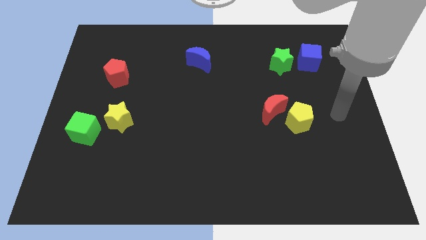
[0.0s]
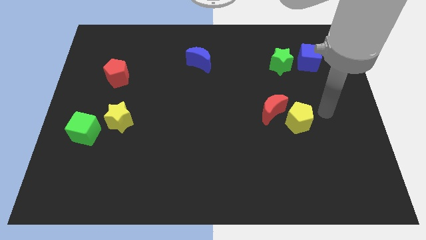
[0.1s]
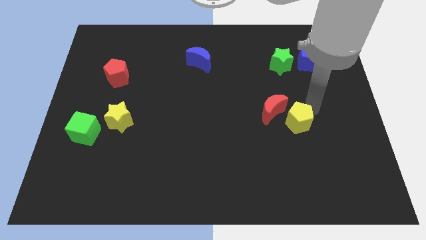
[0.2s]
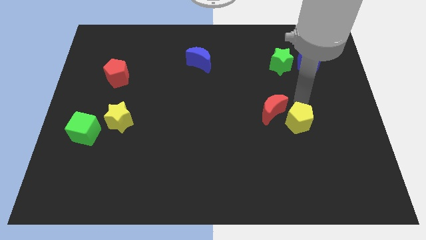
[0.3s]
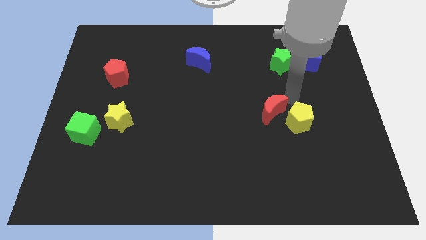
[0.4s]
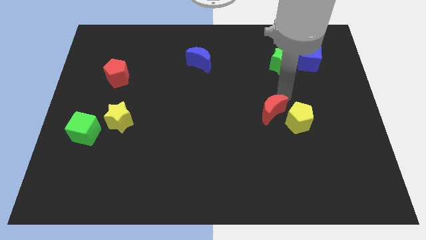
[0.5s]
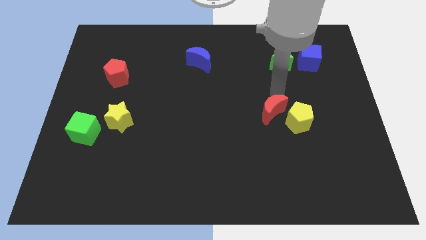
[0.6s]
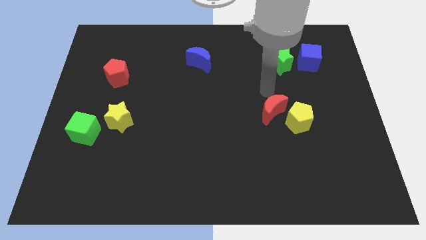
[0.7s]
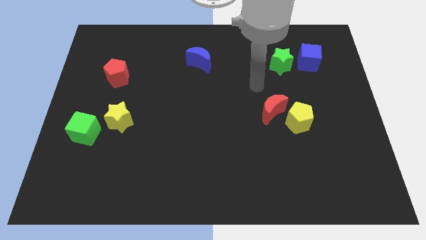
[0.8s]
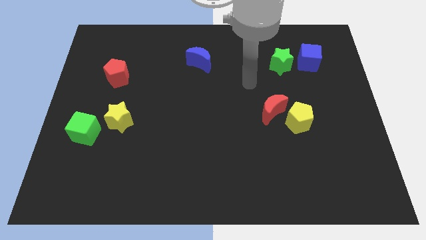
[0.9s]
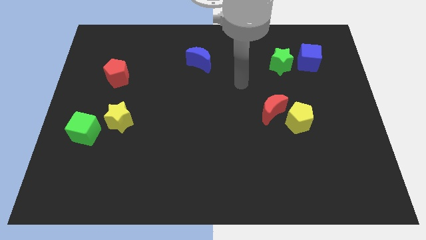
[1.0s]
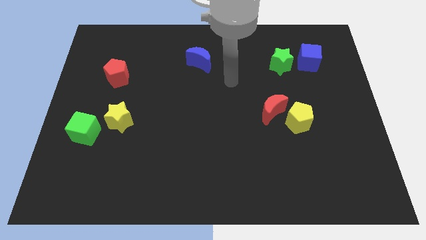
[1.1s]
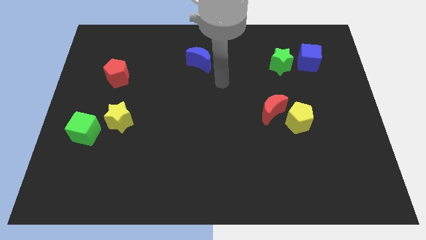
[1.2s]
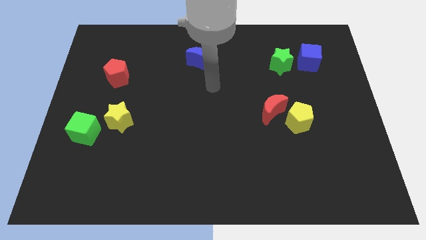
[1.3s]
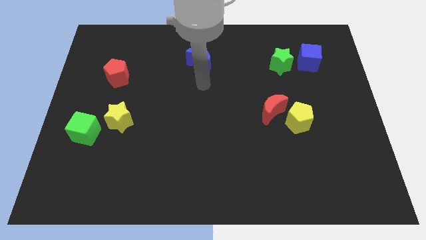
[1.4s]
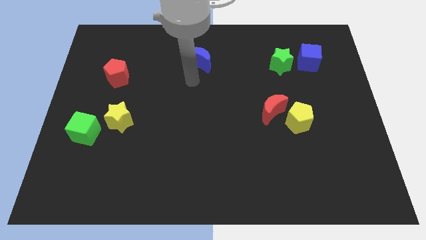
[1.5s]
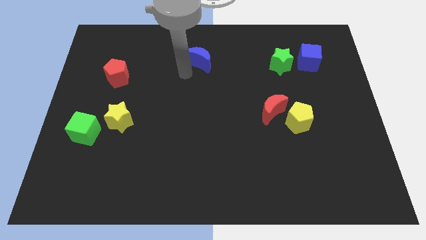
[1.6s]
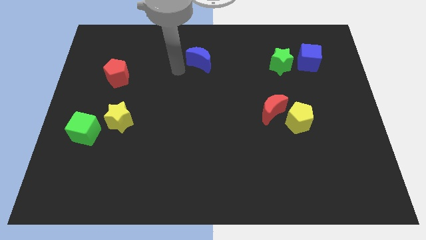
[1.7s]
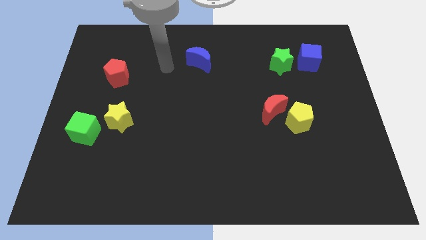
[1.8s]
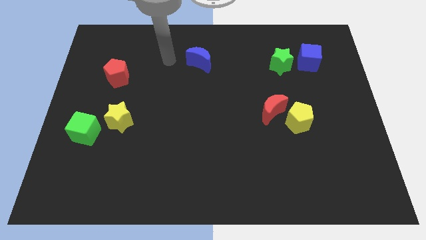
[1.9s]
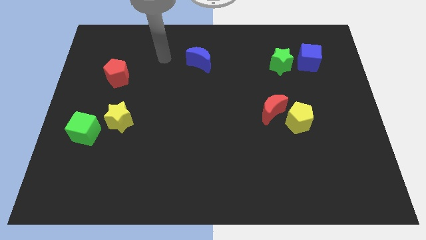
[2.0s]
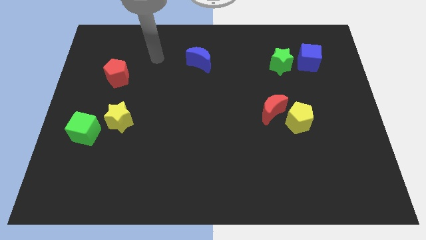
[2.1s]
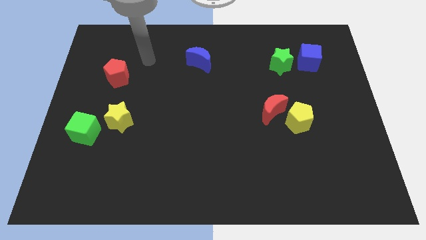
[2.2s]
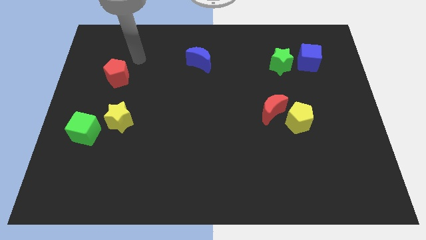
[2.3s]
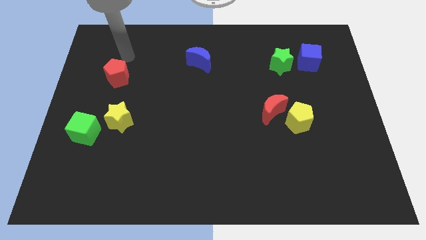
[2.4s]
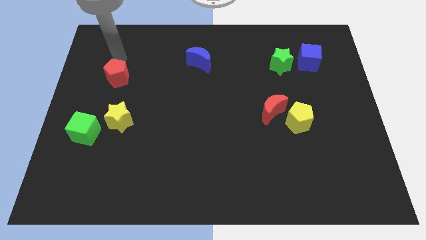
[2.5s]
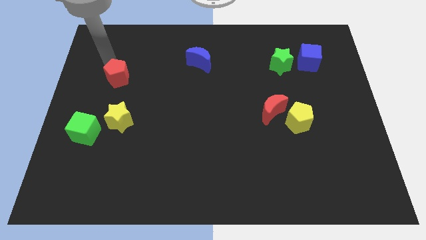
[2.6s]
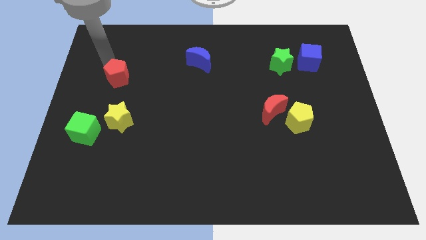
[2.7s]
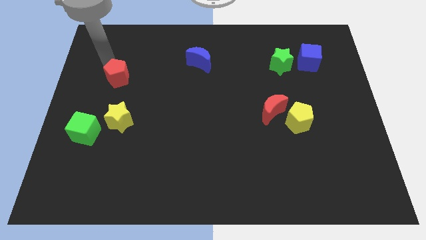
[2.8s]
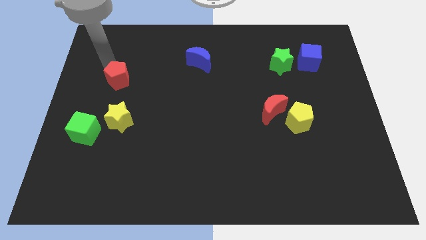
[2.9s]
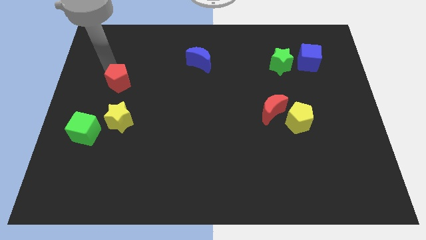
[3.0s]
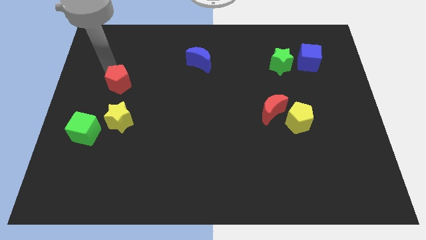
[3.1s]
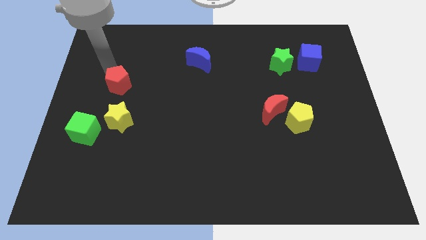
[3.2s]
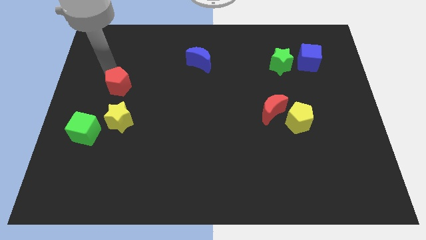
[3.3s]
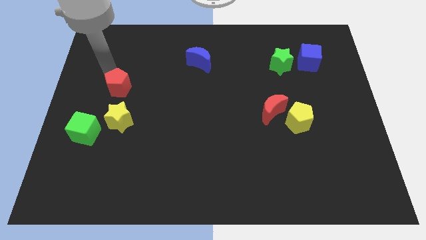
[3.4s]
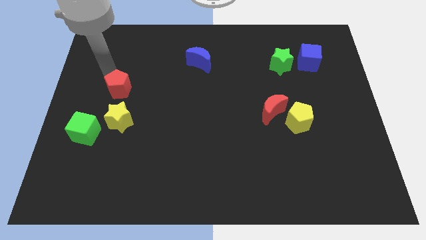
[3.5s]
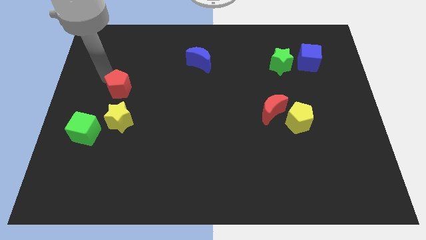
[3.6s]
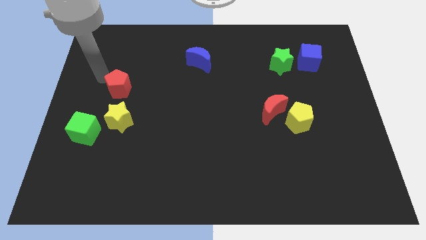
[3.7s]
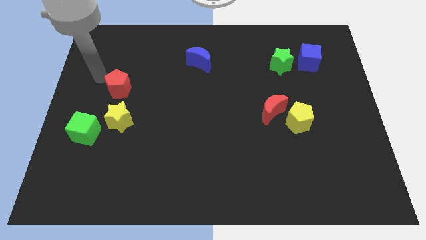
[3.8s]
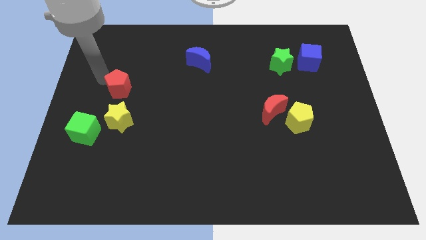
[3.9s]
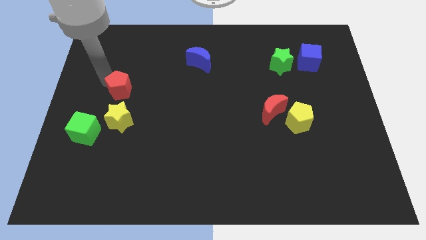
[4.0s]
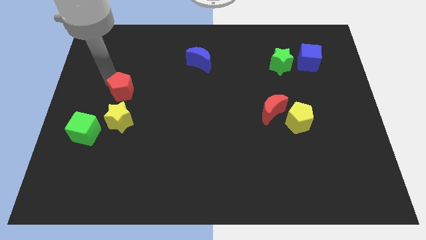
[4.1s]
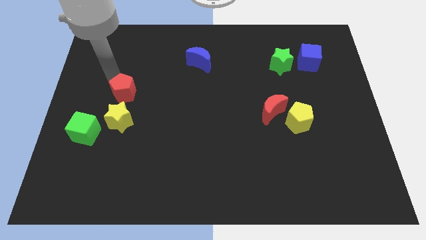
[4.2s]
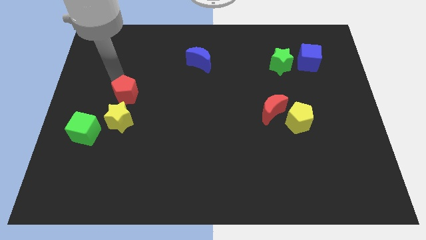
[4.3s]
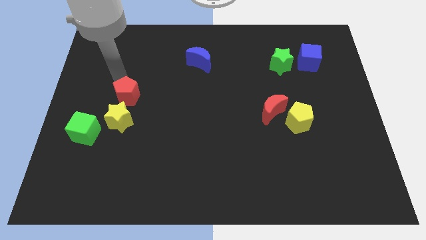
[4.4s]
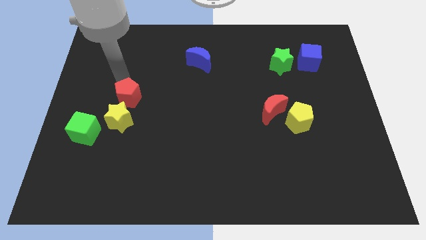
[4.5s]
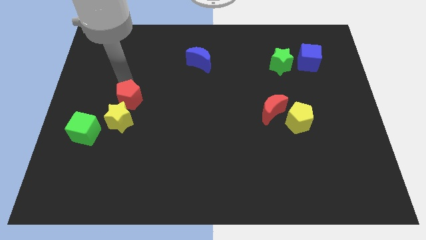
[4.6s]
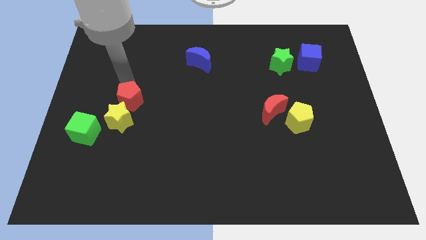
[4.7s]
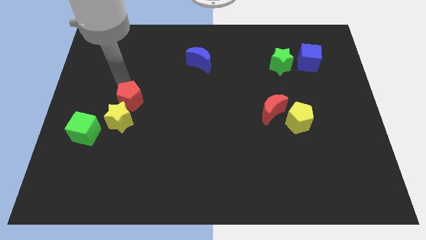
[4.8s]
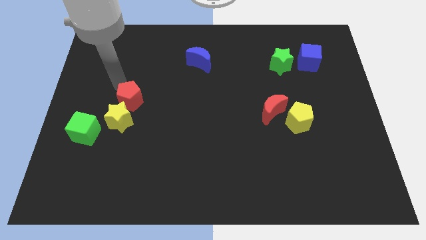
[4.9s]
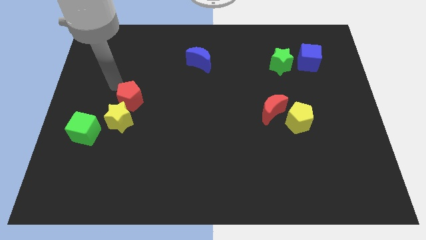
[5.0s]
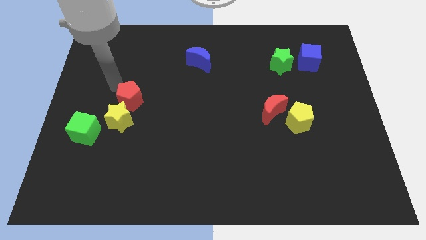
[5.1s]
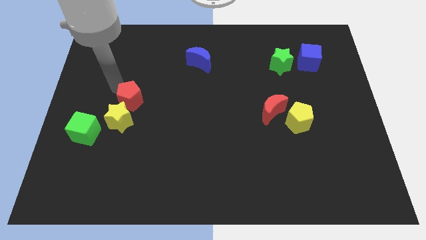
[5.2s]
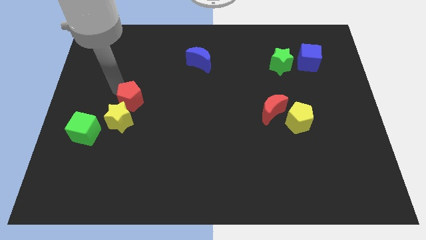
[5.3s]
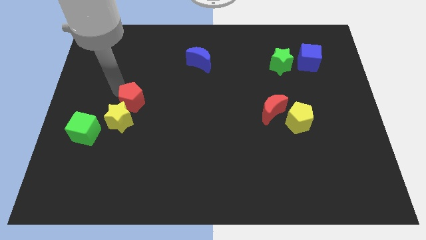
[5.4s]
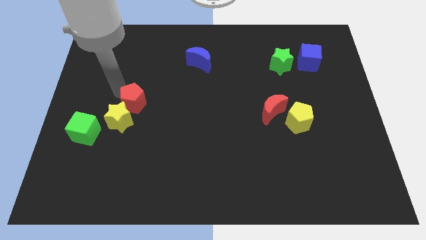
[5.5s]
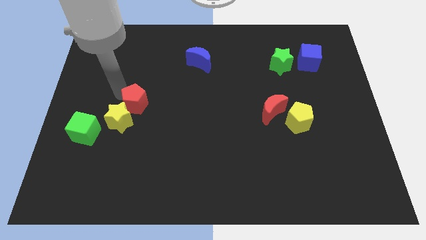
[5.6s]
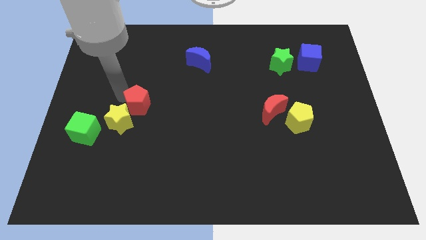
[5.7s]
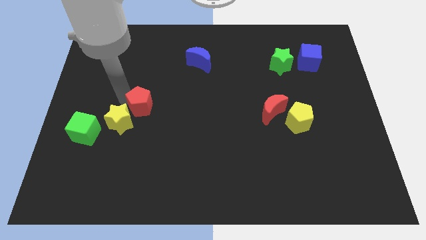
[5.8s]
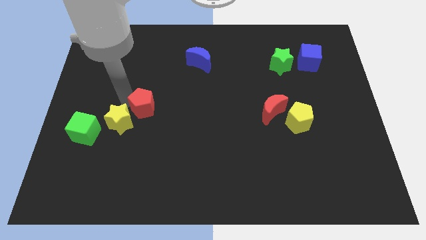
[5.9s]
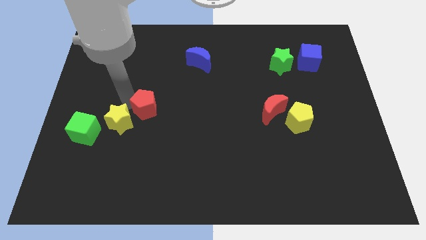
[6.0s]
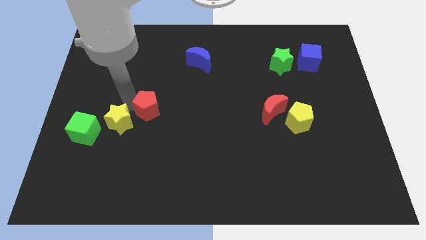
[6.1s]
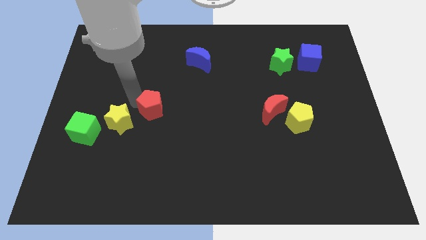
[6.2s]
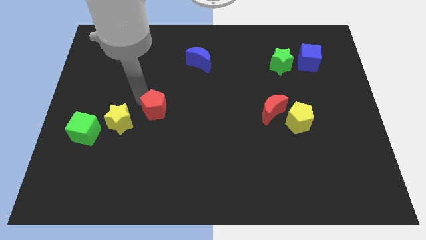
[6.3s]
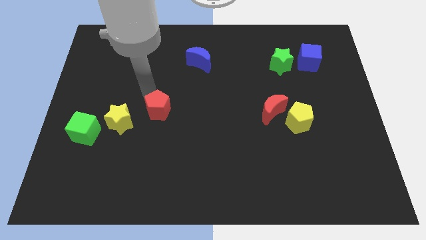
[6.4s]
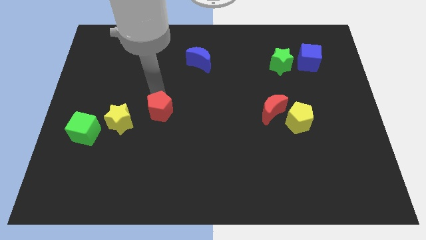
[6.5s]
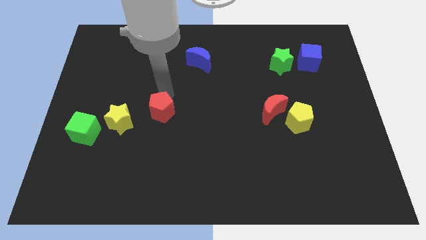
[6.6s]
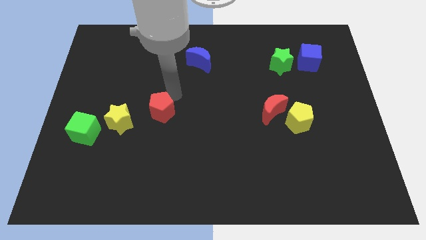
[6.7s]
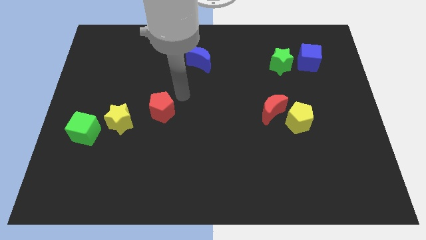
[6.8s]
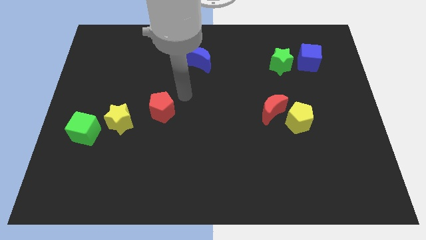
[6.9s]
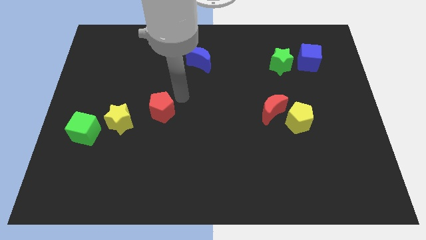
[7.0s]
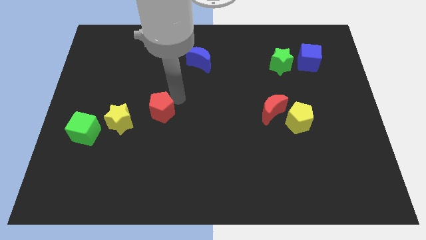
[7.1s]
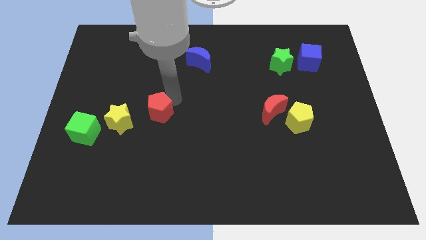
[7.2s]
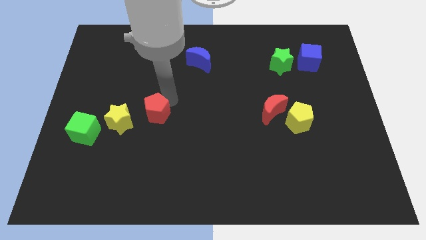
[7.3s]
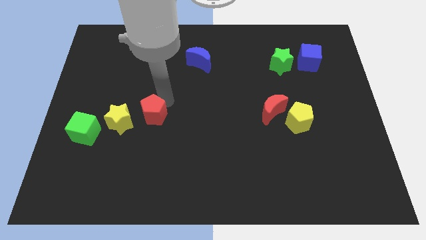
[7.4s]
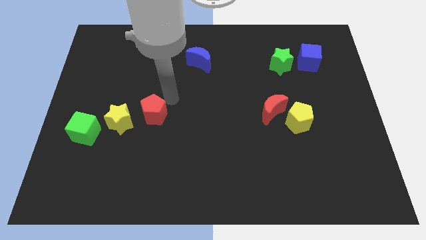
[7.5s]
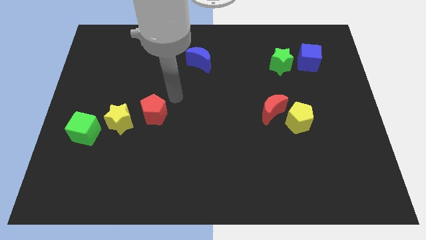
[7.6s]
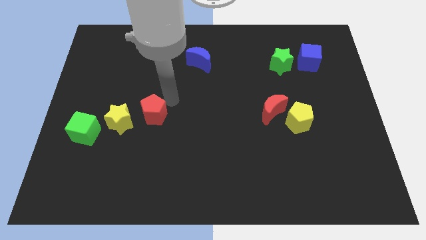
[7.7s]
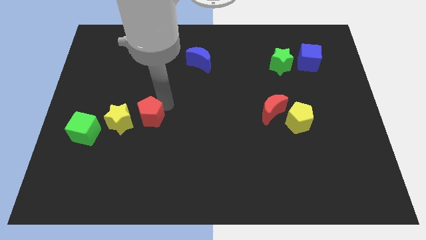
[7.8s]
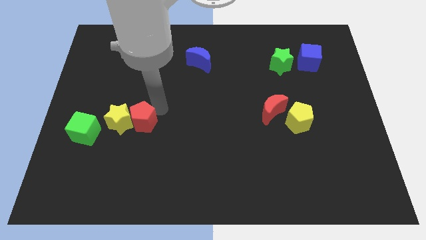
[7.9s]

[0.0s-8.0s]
push the red pentagon to the right side of the green cube
